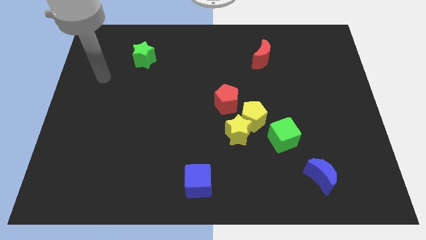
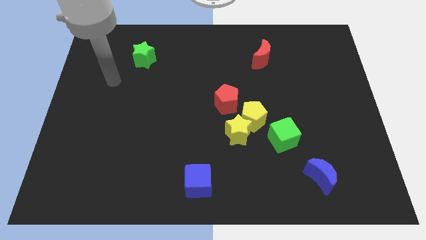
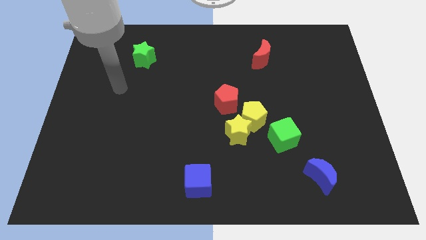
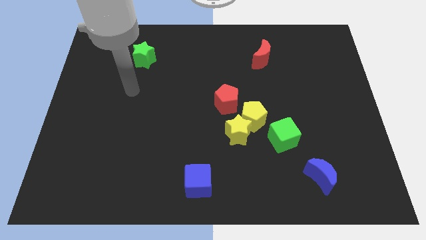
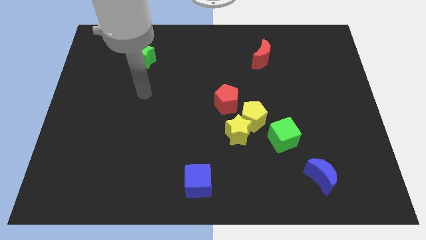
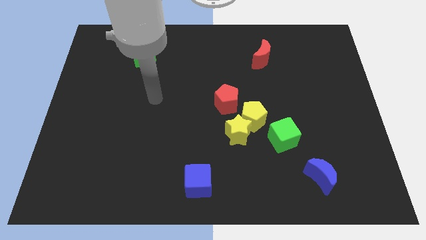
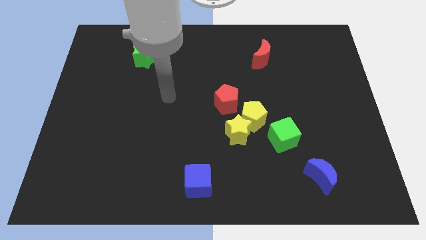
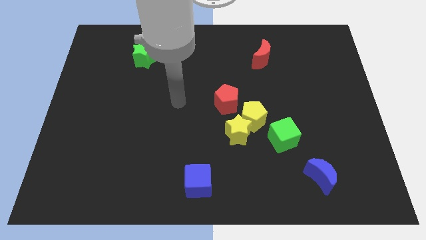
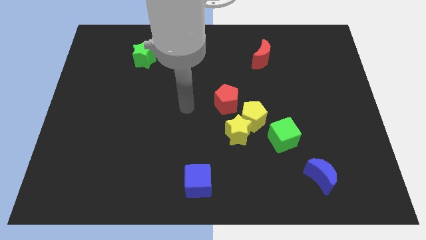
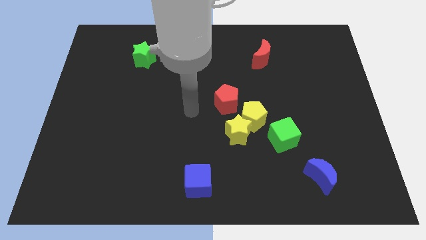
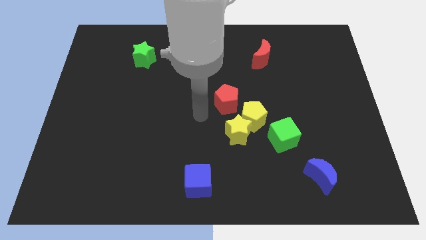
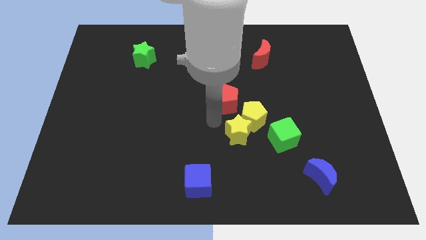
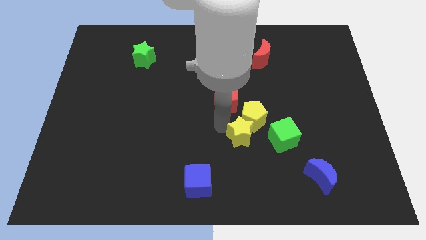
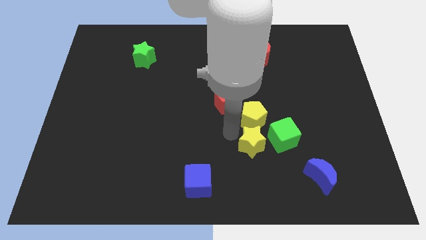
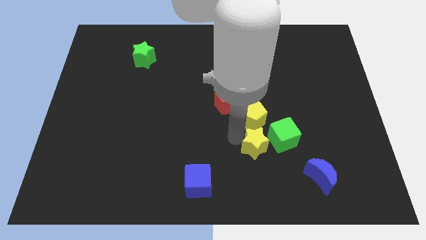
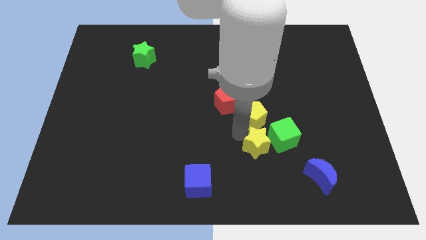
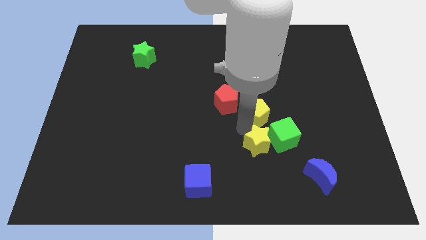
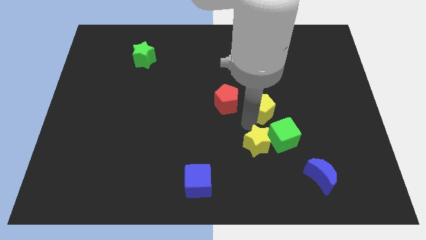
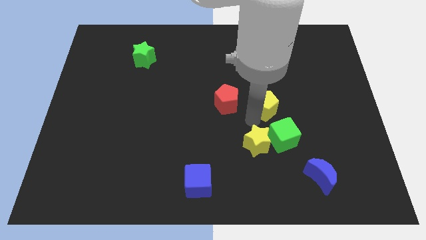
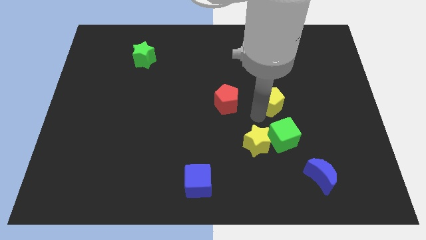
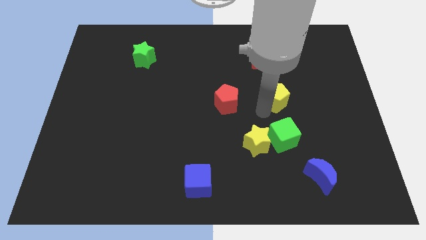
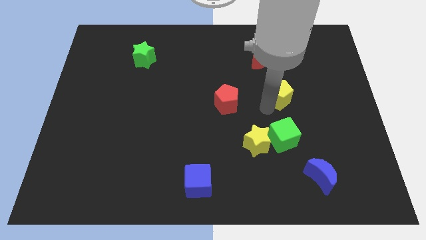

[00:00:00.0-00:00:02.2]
separate the yellow pentagon from the yellow star, red pentagon, and green cube

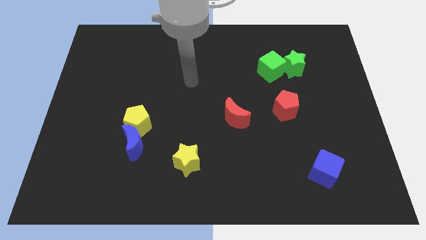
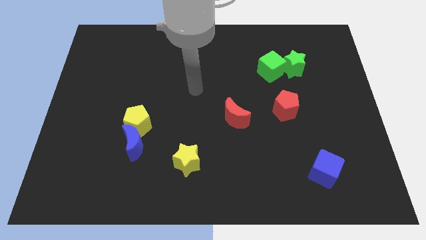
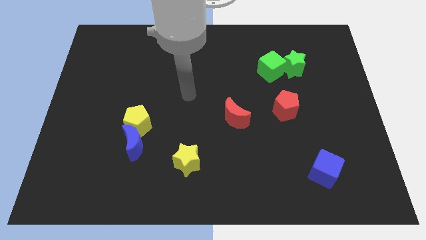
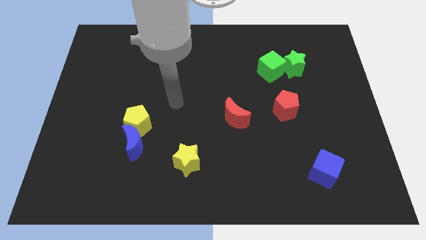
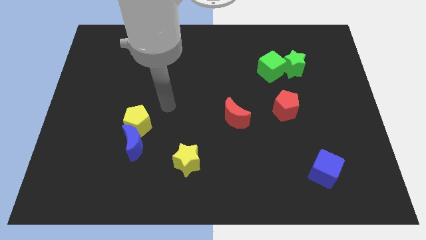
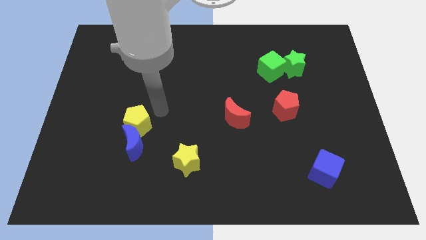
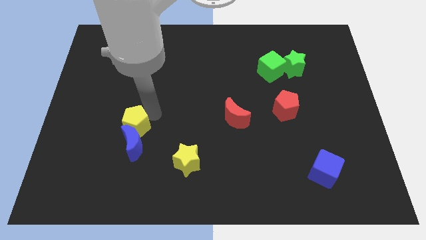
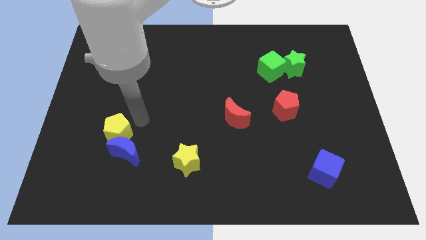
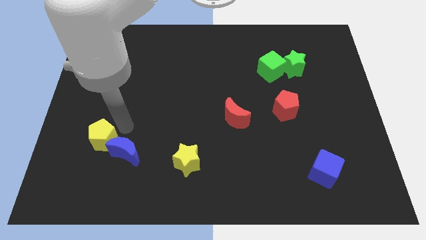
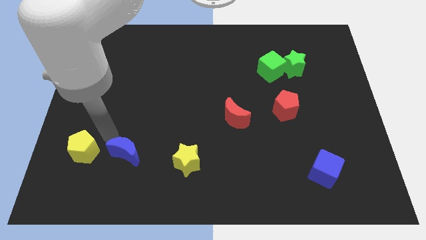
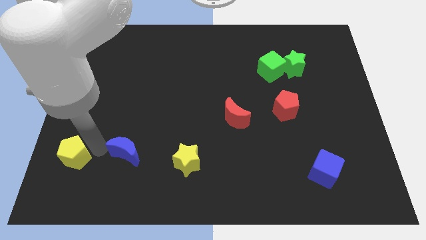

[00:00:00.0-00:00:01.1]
move the blue moon away from the yellow pentagon

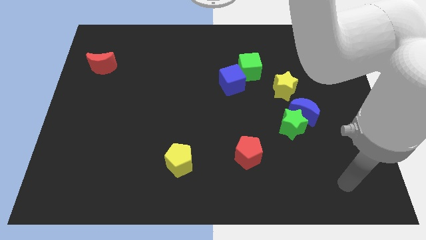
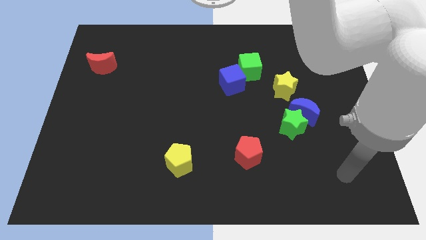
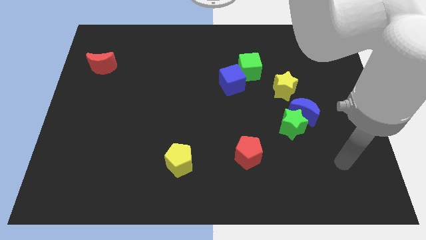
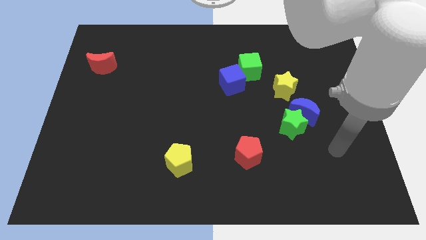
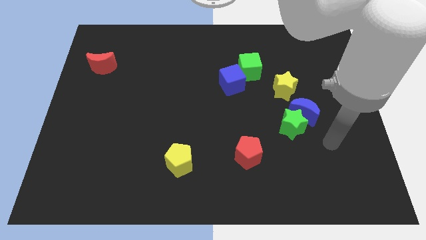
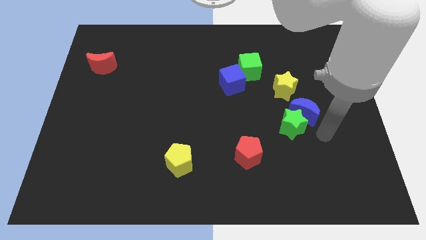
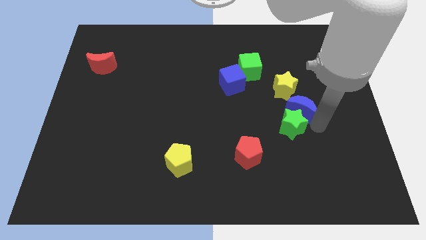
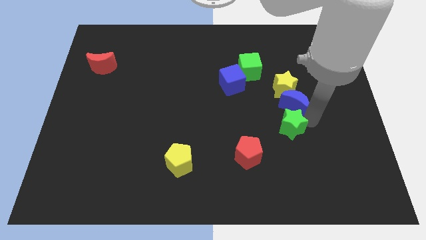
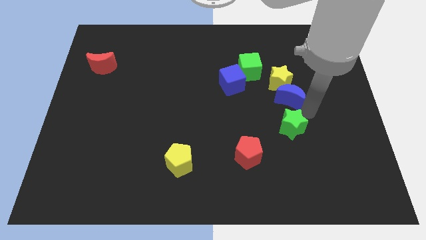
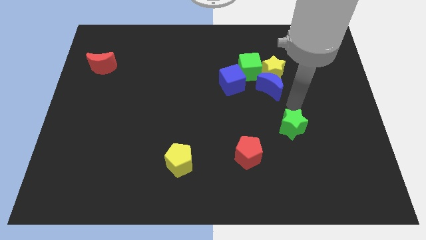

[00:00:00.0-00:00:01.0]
separate the green star from the blue moon

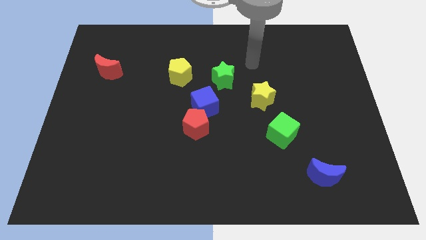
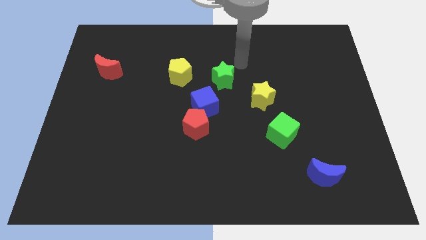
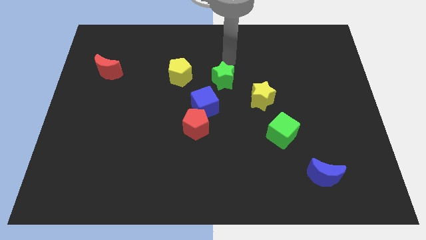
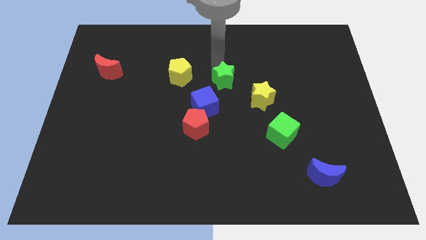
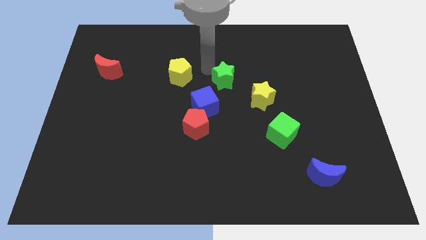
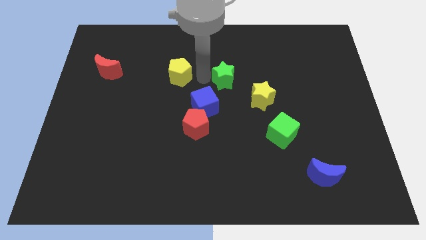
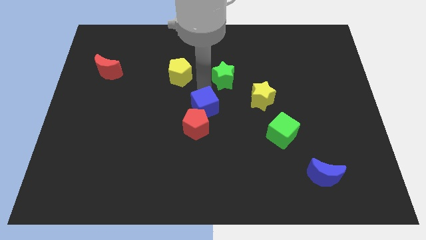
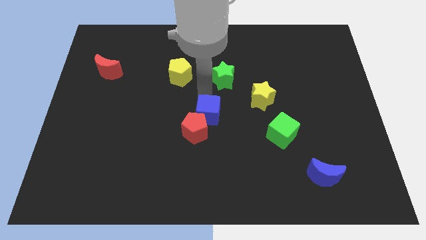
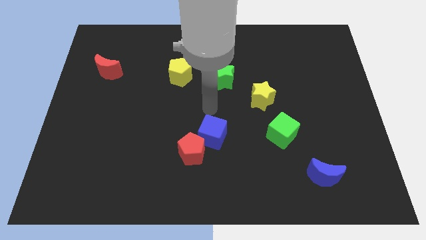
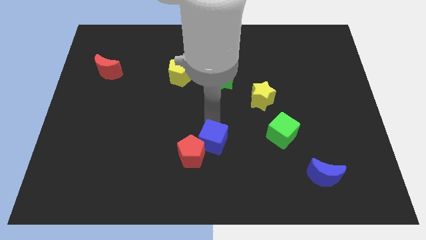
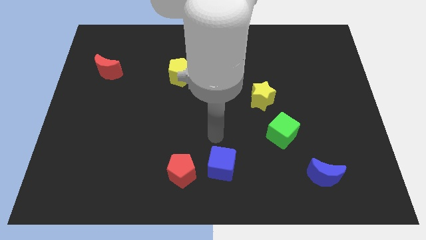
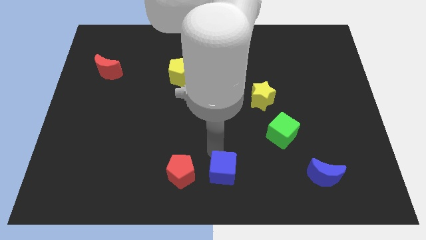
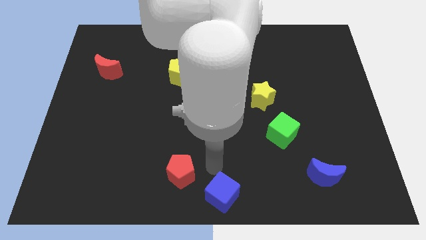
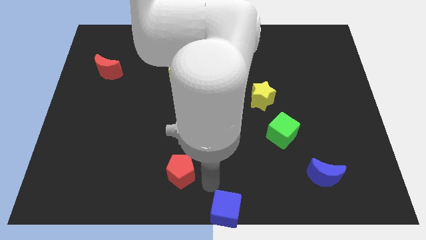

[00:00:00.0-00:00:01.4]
pull the red pentagon apart from the blue cube

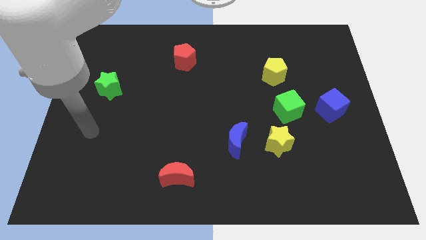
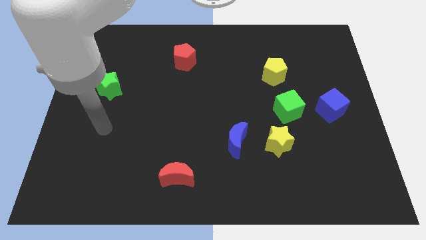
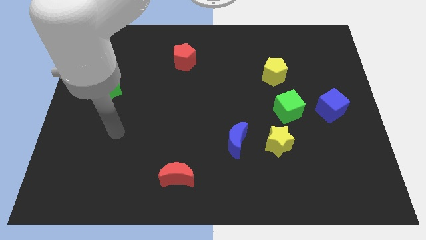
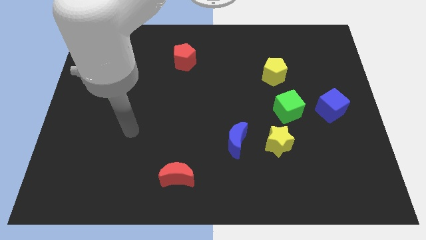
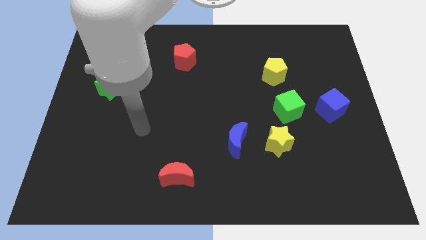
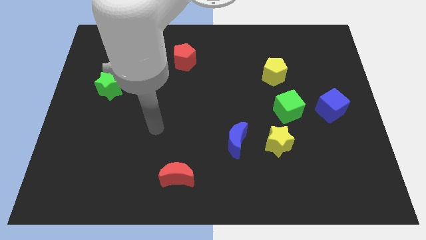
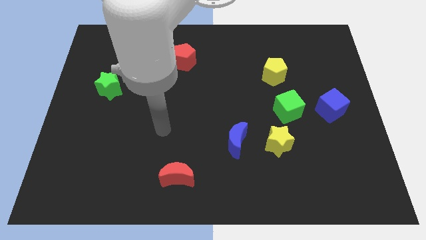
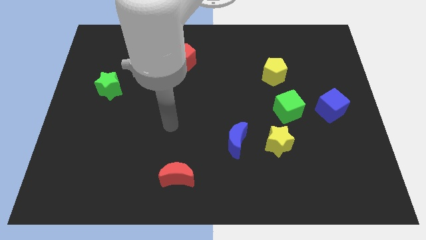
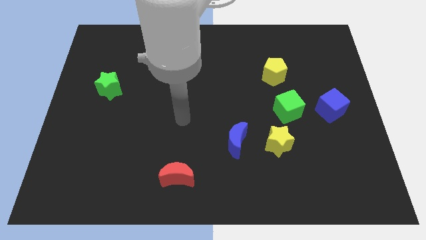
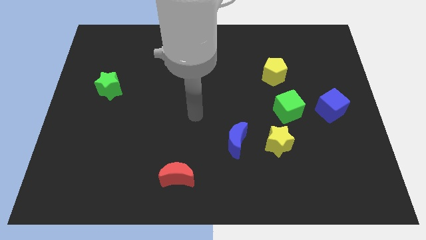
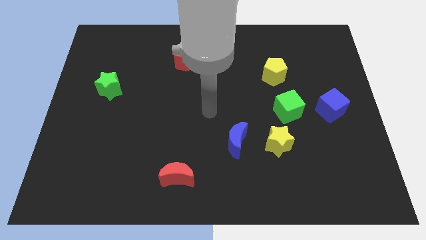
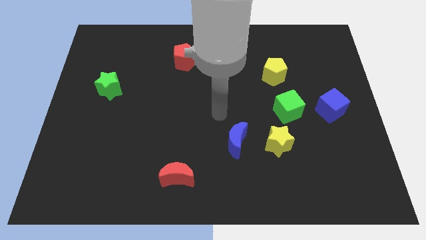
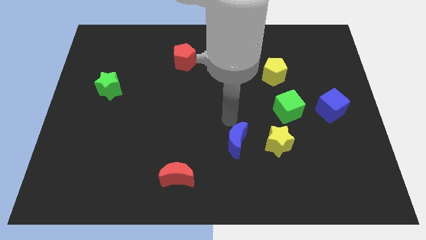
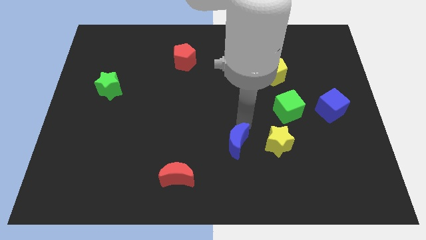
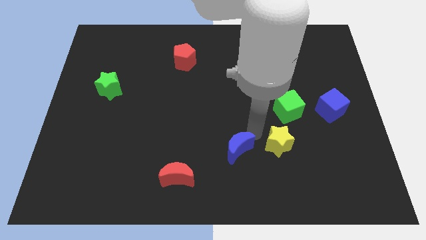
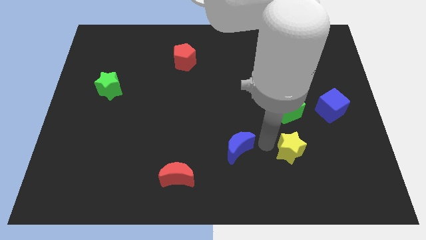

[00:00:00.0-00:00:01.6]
pull the blue moon apart from the yellow star

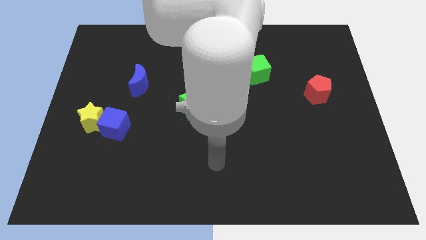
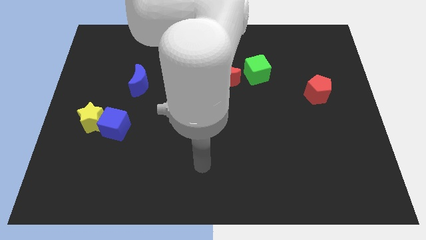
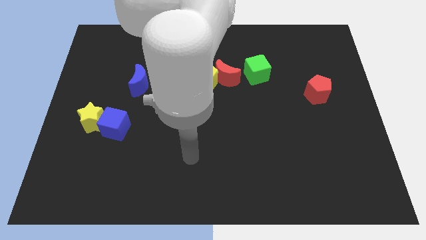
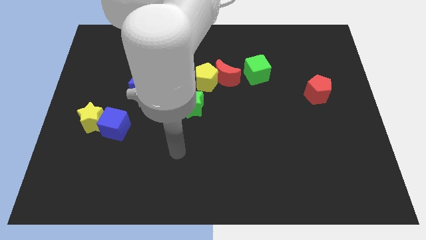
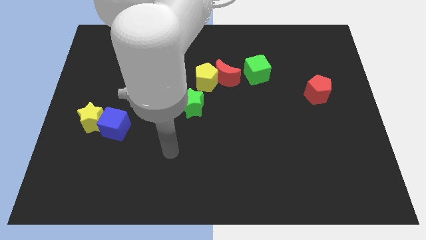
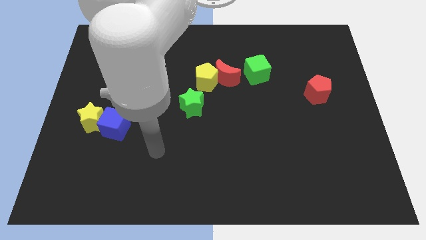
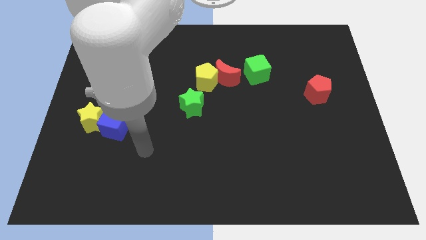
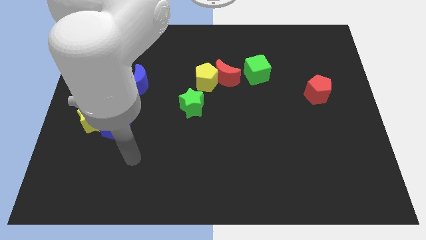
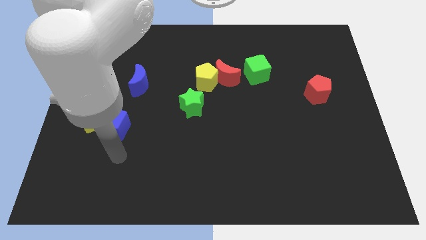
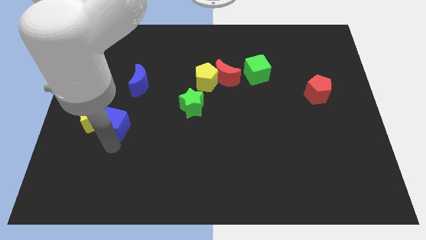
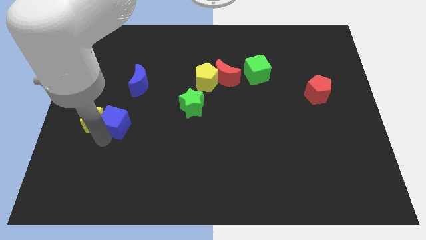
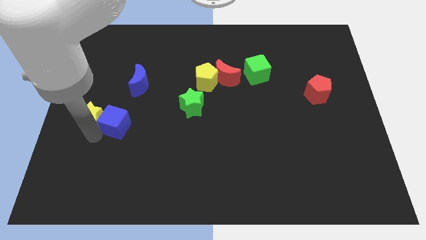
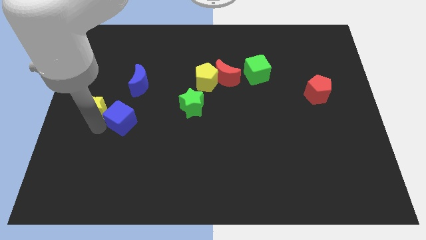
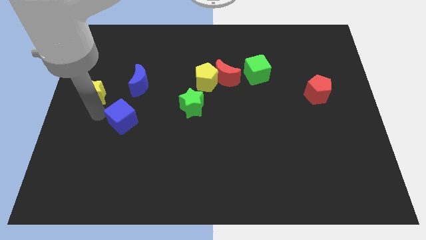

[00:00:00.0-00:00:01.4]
pull the blue cube apart from the yellow star

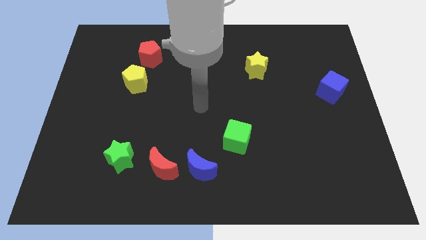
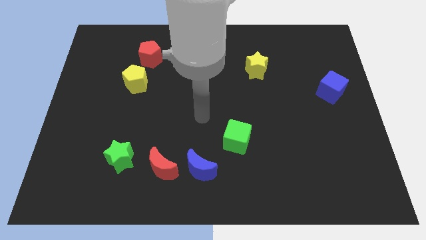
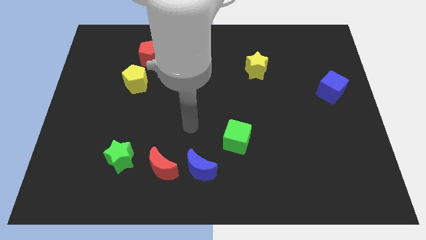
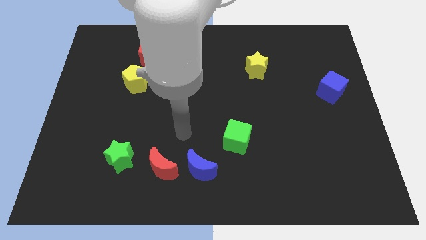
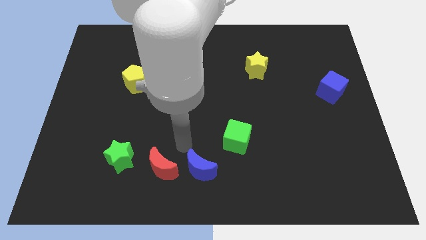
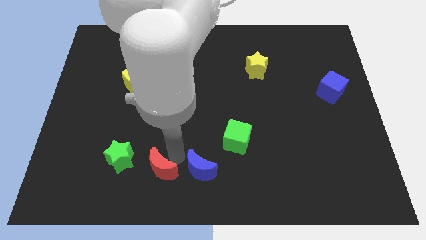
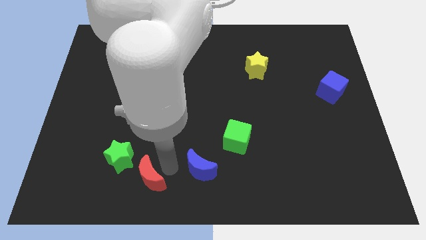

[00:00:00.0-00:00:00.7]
move the blue moon away from the red moon
